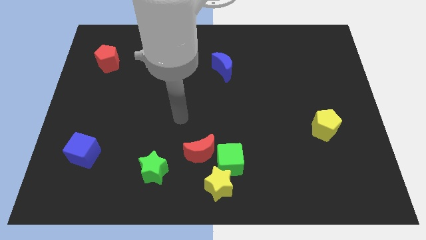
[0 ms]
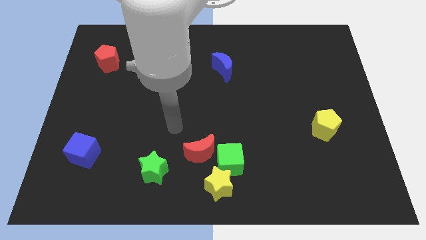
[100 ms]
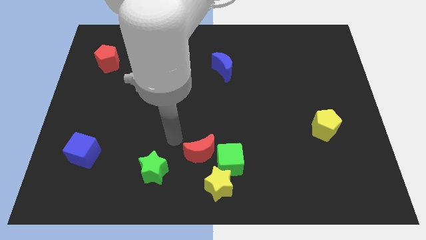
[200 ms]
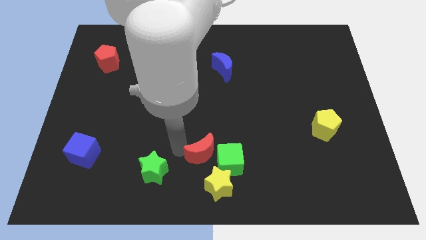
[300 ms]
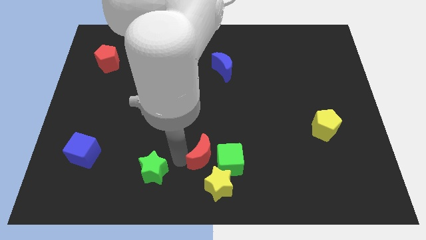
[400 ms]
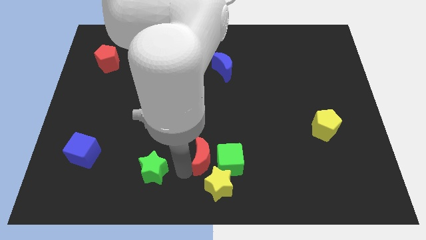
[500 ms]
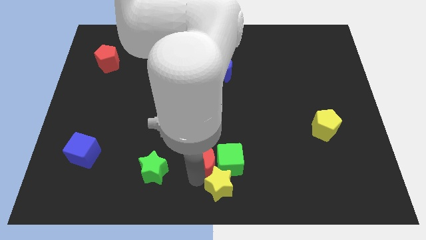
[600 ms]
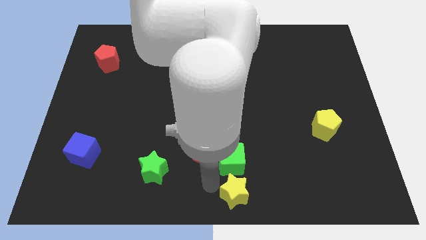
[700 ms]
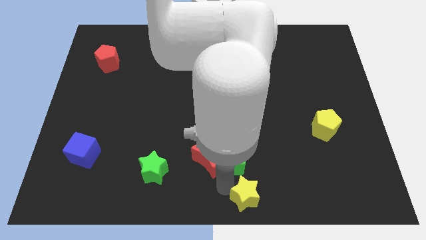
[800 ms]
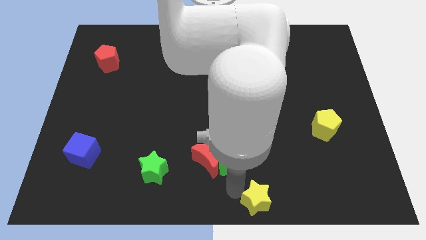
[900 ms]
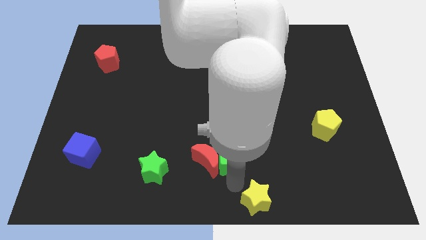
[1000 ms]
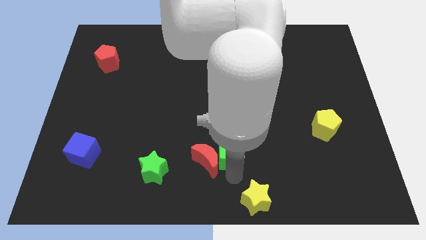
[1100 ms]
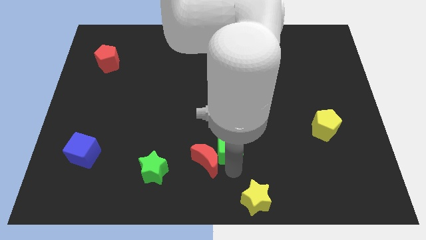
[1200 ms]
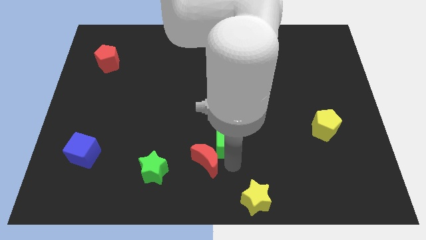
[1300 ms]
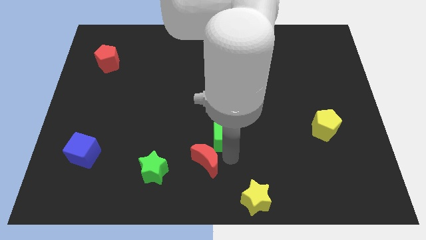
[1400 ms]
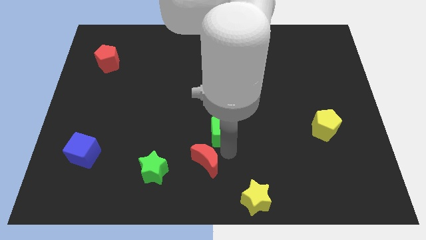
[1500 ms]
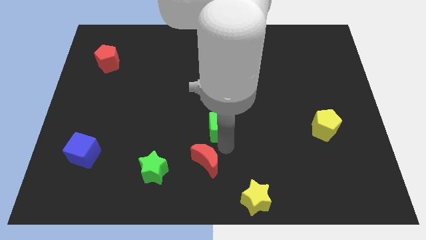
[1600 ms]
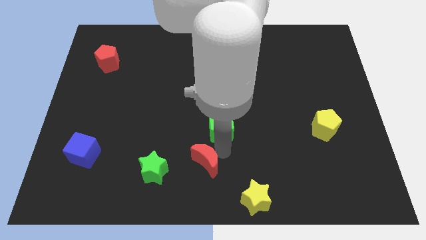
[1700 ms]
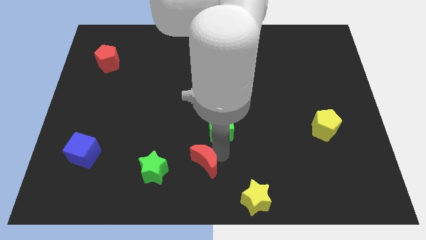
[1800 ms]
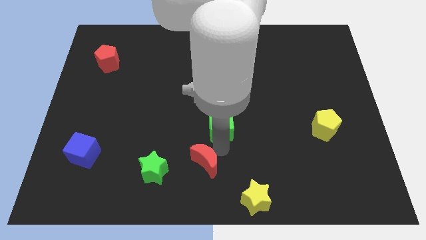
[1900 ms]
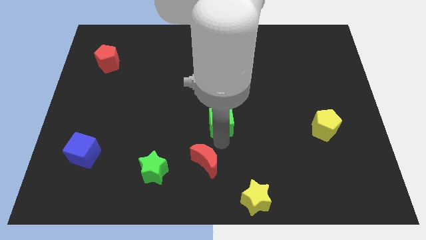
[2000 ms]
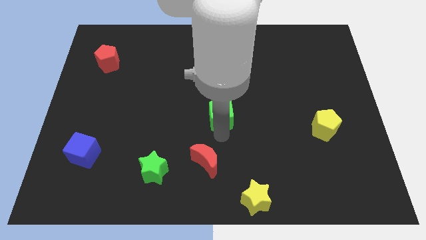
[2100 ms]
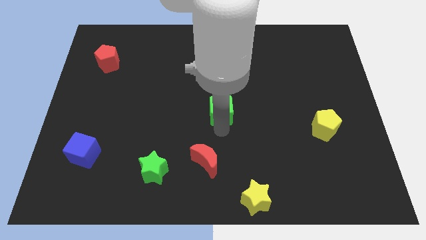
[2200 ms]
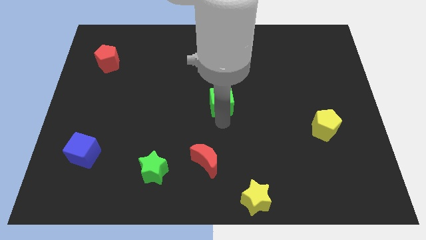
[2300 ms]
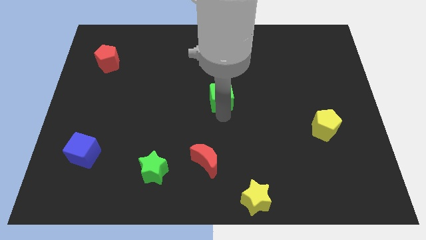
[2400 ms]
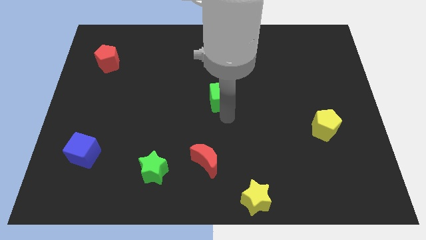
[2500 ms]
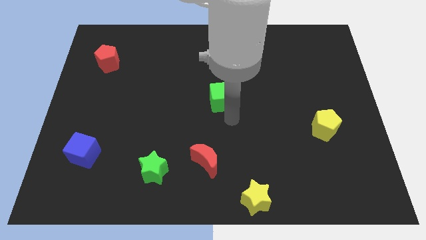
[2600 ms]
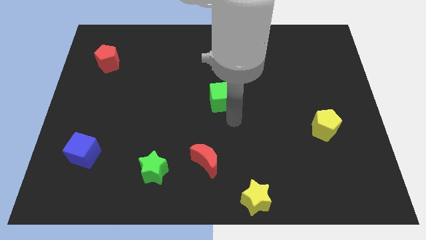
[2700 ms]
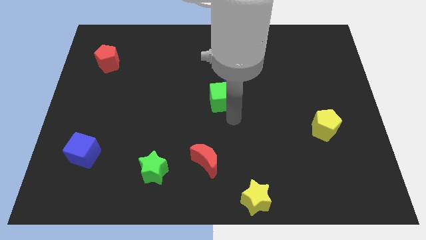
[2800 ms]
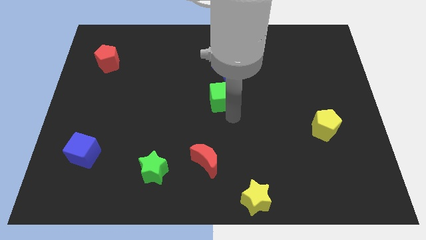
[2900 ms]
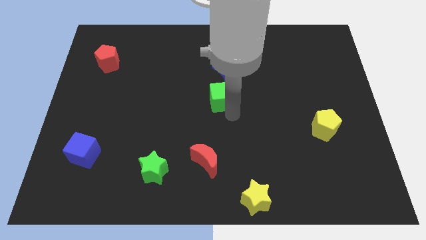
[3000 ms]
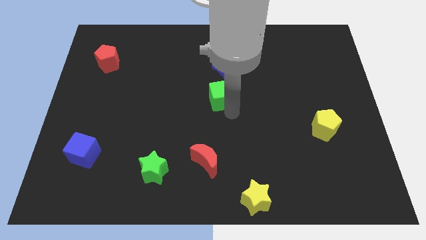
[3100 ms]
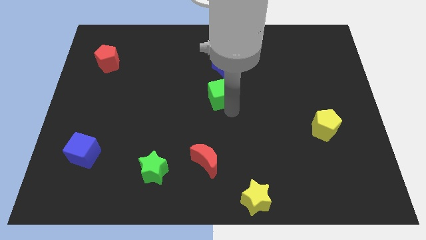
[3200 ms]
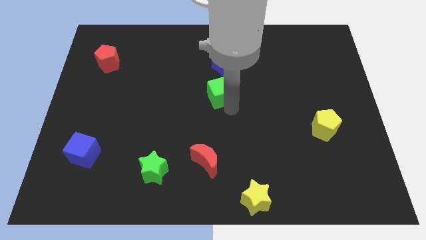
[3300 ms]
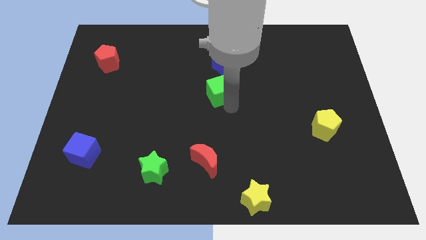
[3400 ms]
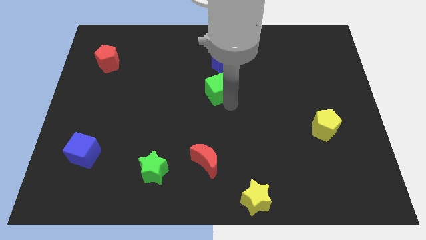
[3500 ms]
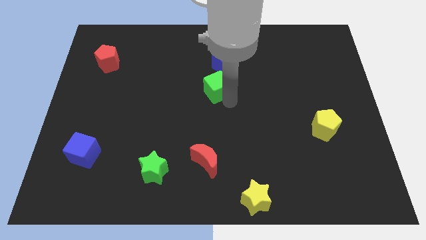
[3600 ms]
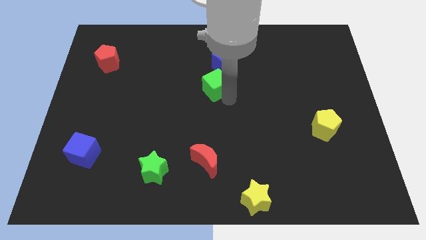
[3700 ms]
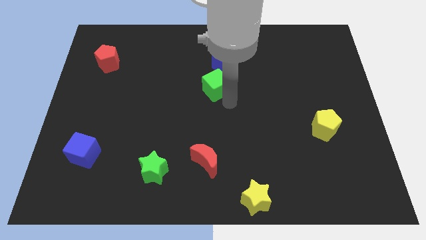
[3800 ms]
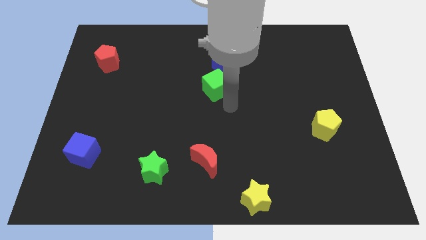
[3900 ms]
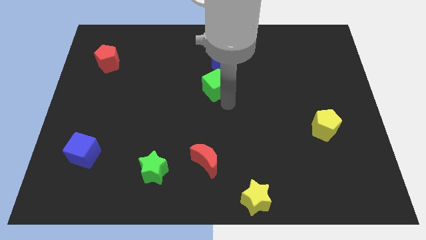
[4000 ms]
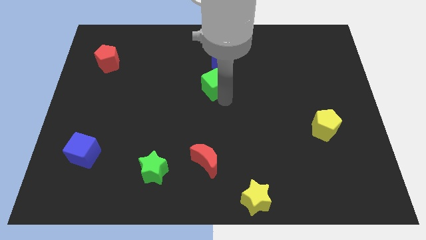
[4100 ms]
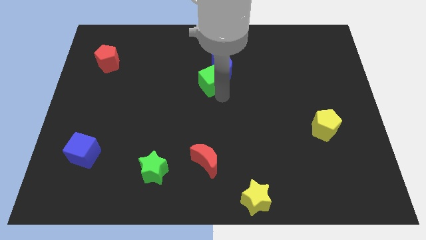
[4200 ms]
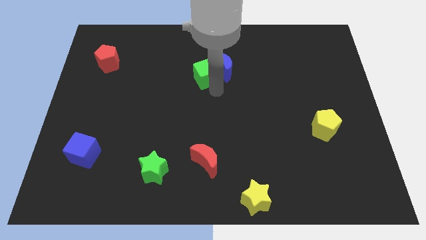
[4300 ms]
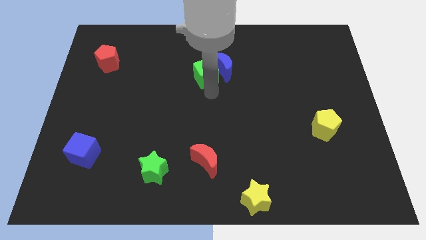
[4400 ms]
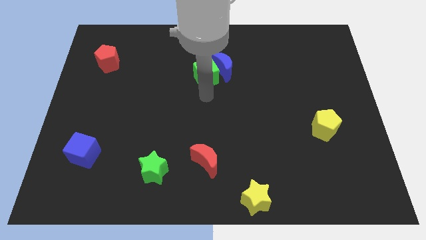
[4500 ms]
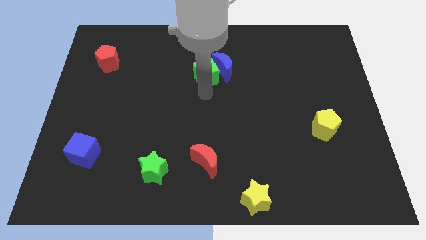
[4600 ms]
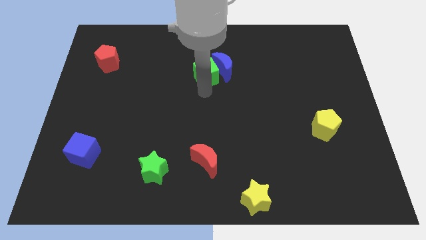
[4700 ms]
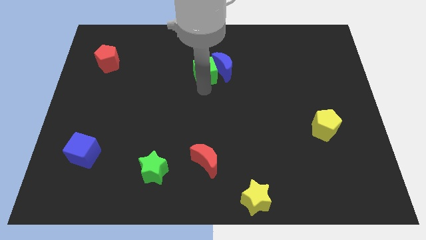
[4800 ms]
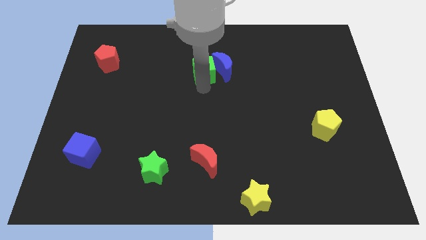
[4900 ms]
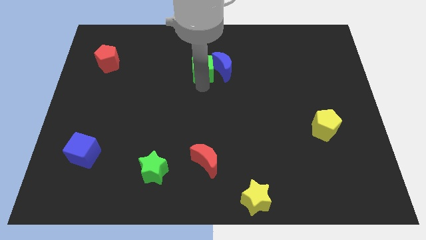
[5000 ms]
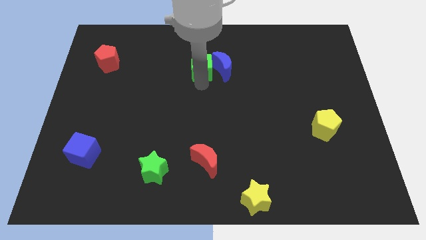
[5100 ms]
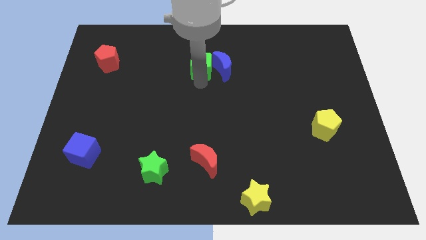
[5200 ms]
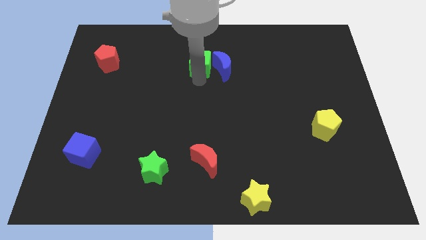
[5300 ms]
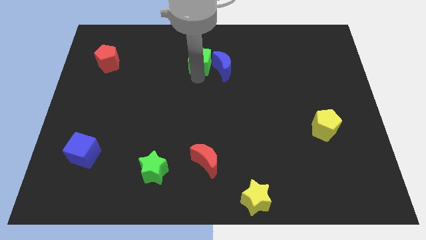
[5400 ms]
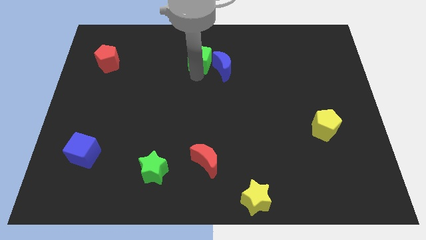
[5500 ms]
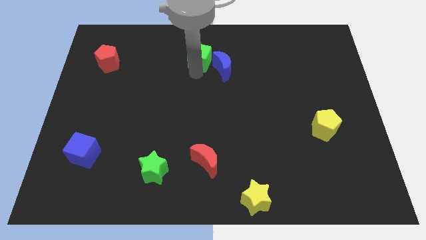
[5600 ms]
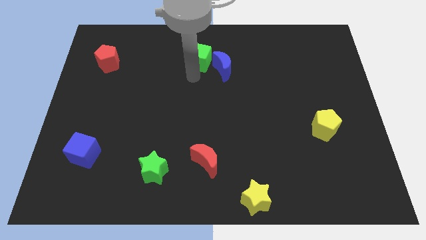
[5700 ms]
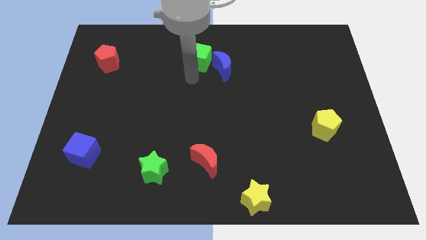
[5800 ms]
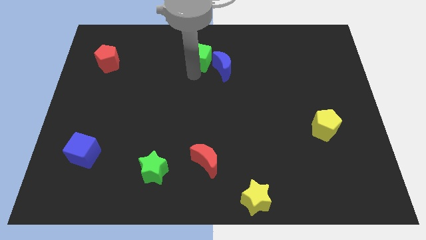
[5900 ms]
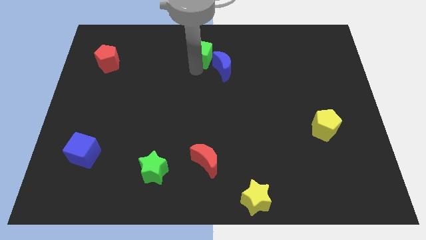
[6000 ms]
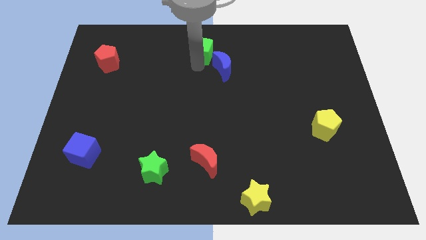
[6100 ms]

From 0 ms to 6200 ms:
move the green cube to the top side
